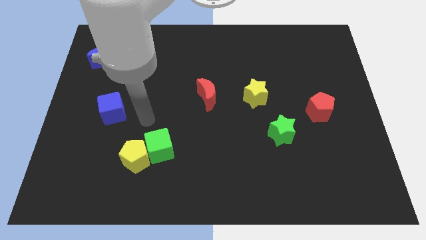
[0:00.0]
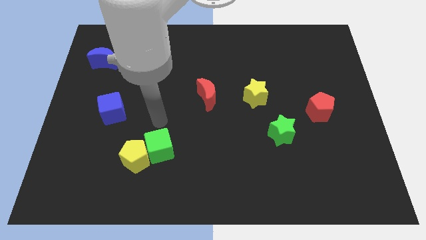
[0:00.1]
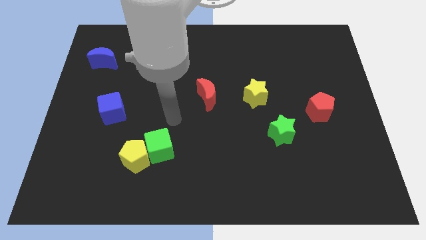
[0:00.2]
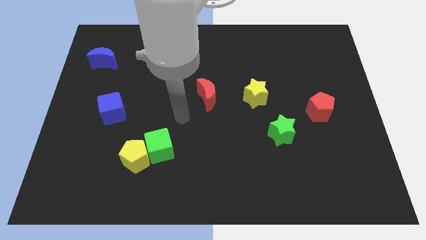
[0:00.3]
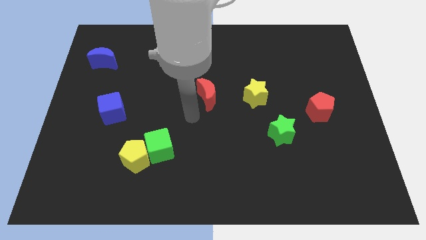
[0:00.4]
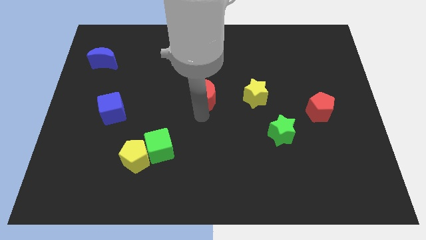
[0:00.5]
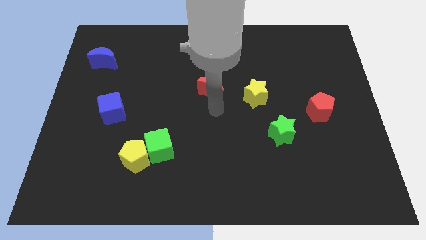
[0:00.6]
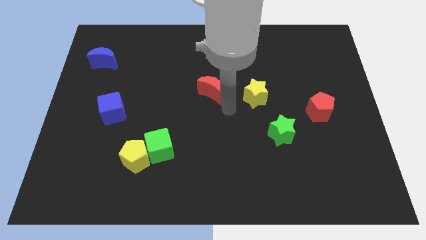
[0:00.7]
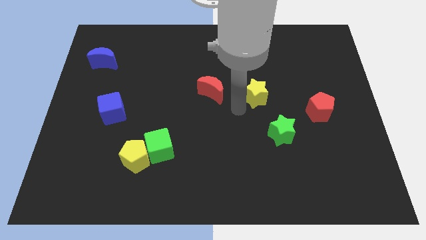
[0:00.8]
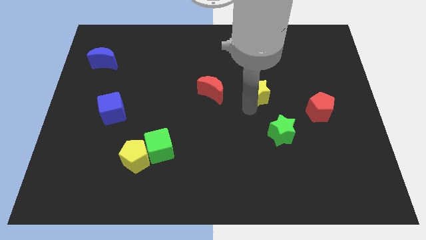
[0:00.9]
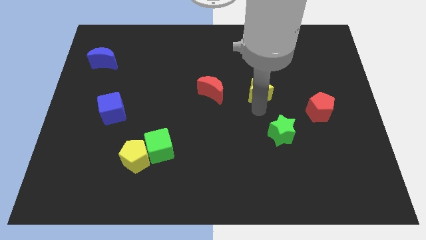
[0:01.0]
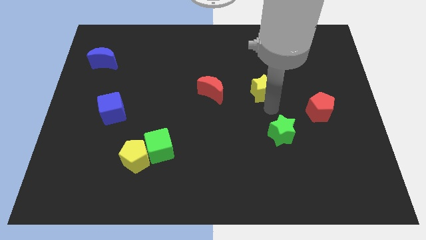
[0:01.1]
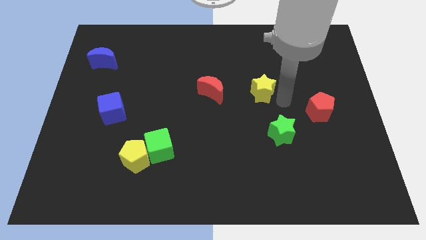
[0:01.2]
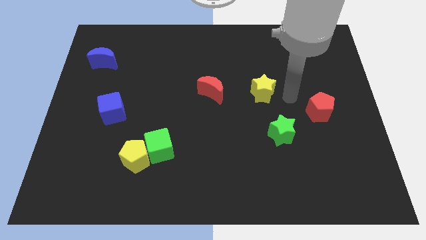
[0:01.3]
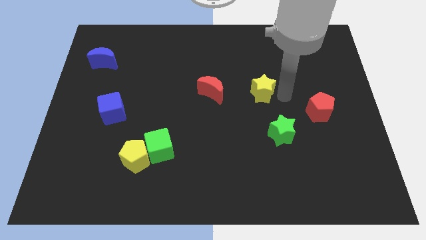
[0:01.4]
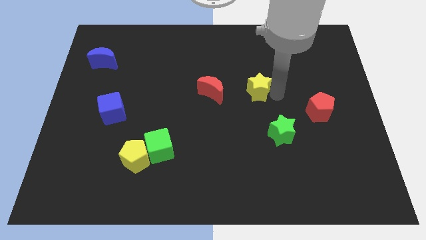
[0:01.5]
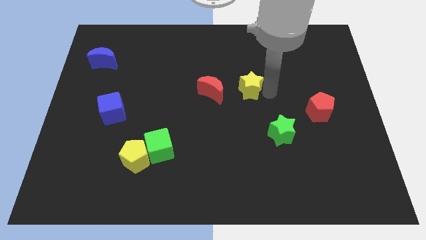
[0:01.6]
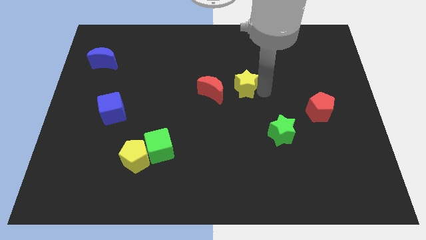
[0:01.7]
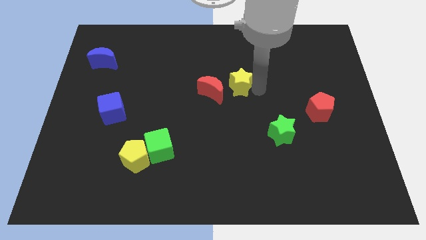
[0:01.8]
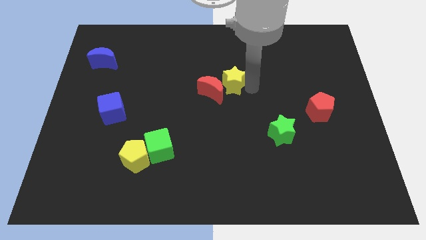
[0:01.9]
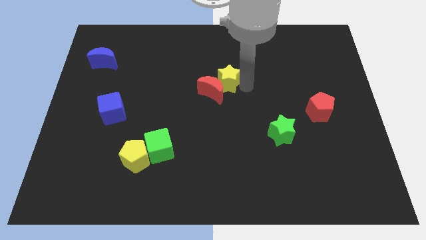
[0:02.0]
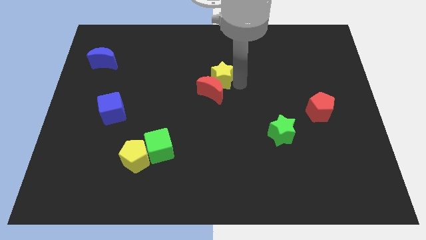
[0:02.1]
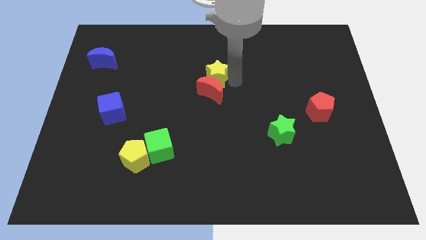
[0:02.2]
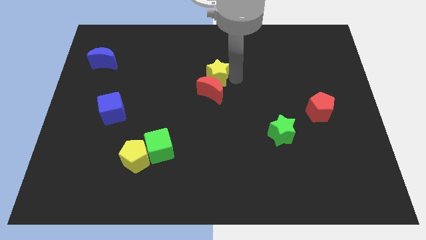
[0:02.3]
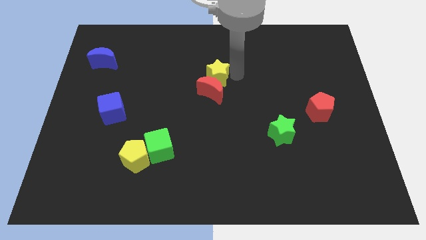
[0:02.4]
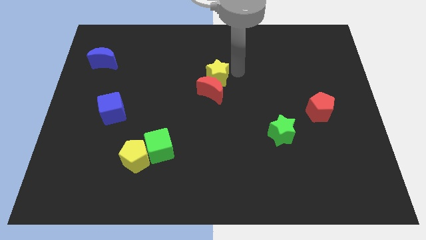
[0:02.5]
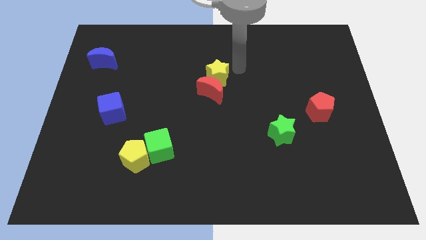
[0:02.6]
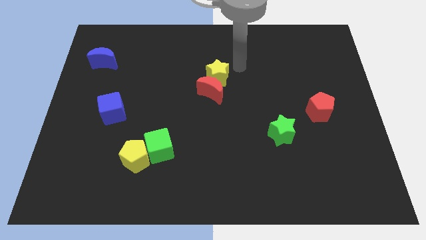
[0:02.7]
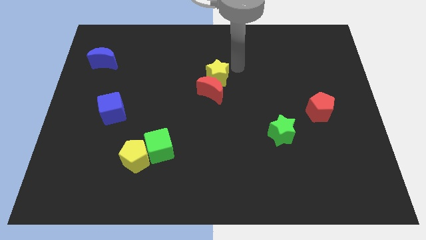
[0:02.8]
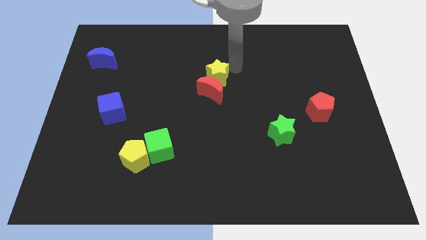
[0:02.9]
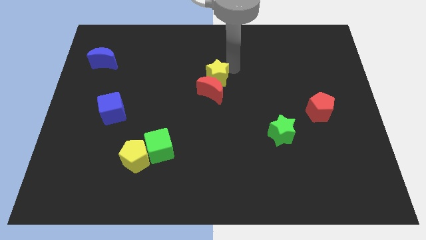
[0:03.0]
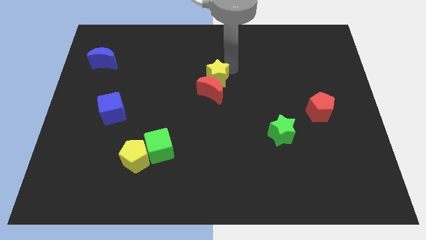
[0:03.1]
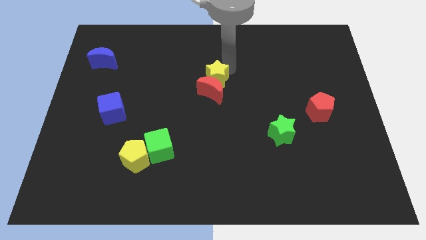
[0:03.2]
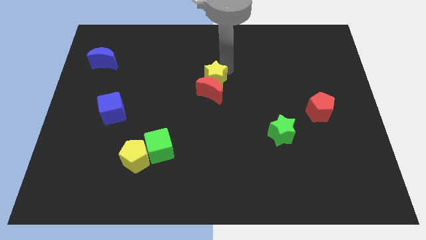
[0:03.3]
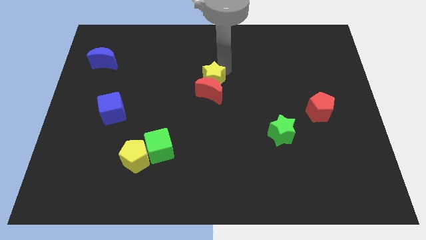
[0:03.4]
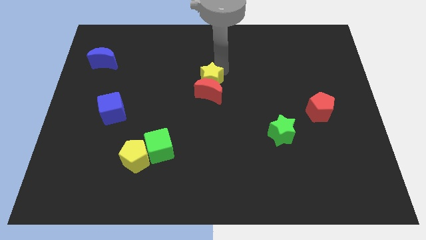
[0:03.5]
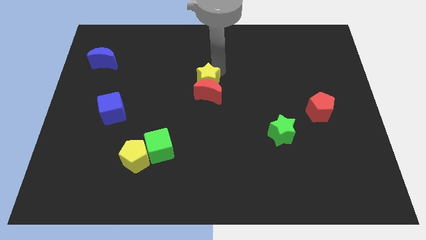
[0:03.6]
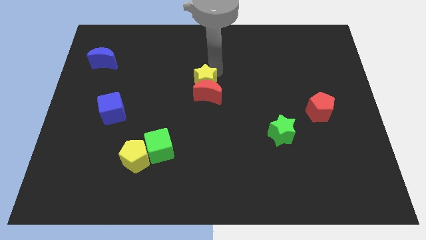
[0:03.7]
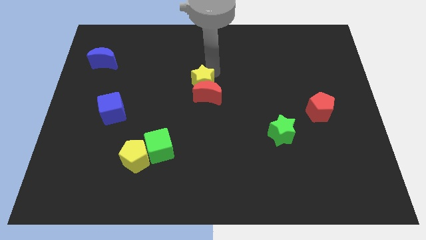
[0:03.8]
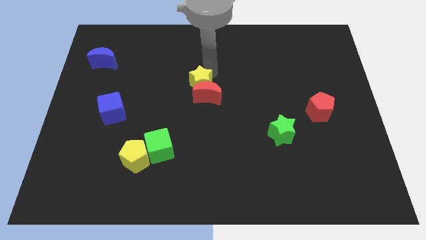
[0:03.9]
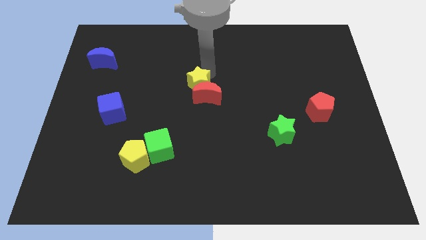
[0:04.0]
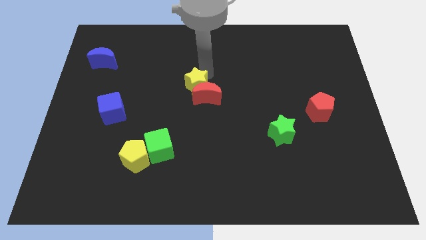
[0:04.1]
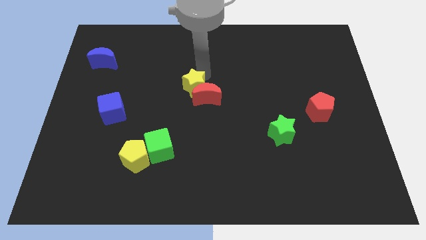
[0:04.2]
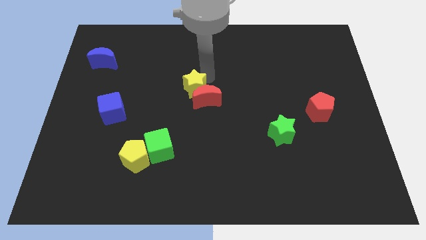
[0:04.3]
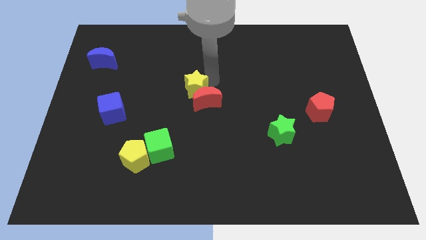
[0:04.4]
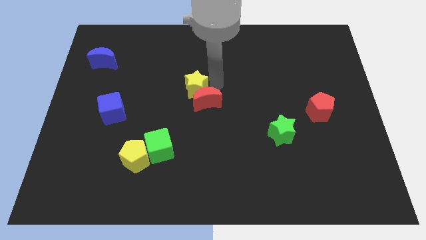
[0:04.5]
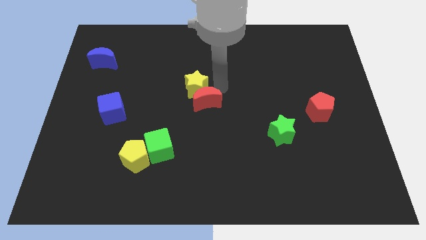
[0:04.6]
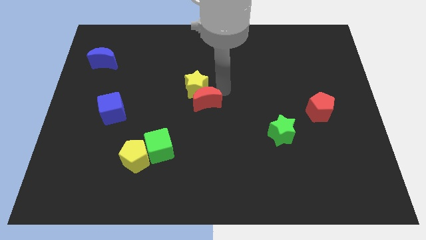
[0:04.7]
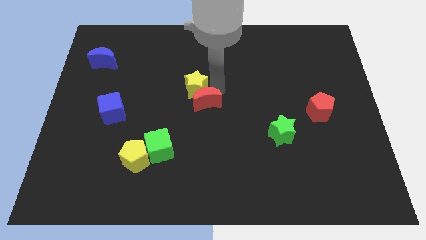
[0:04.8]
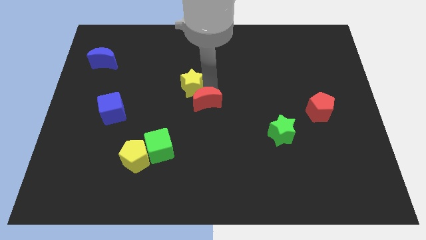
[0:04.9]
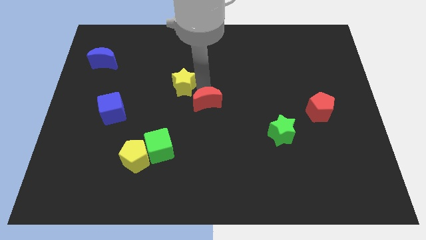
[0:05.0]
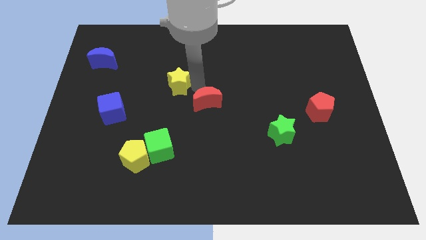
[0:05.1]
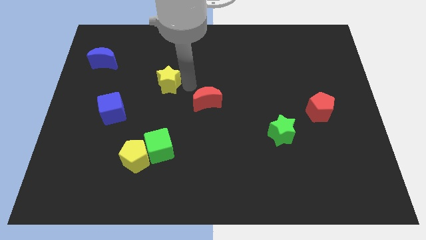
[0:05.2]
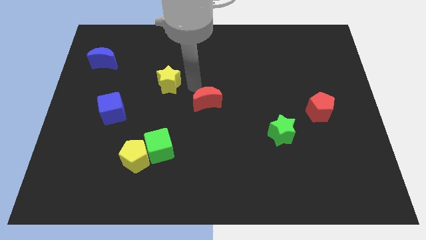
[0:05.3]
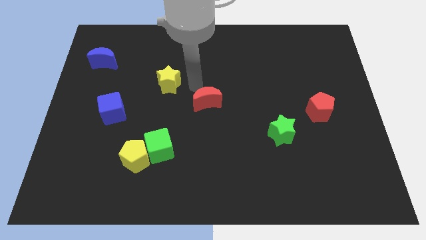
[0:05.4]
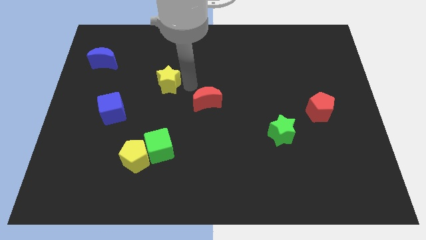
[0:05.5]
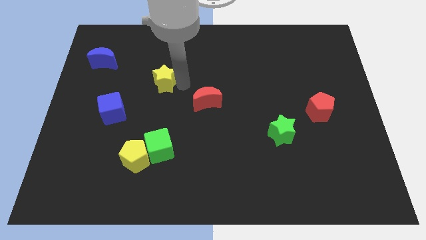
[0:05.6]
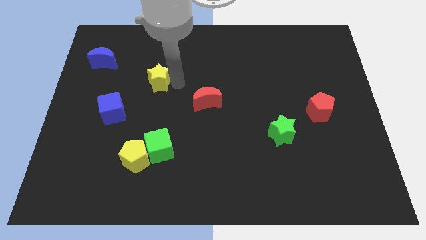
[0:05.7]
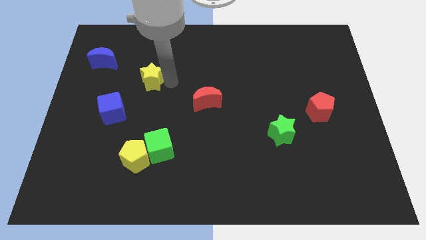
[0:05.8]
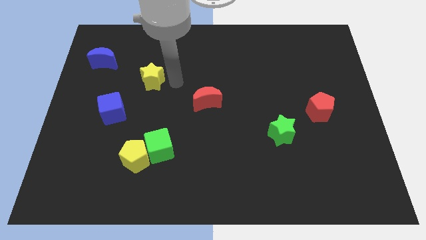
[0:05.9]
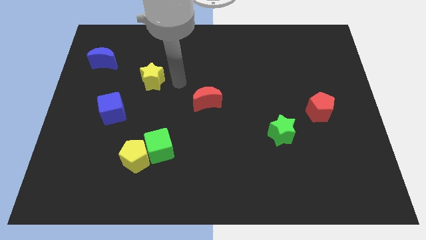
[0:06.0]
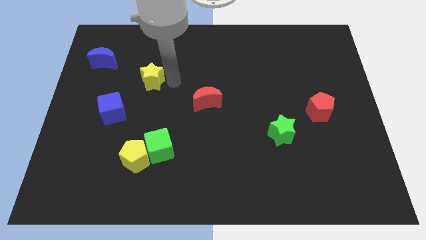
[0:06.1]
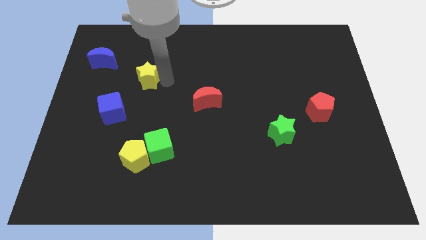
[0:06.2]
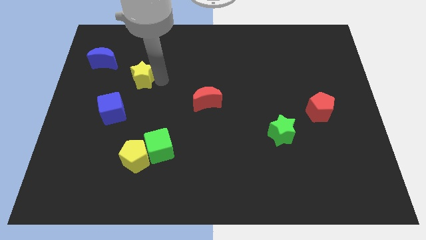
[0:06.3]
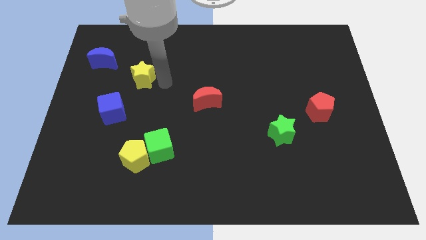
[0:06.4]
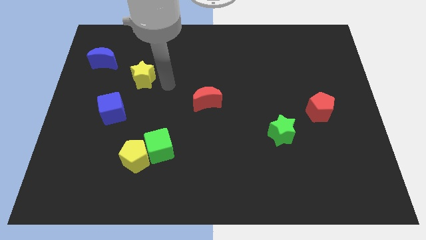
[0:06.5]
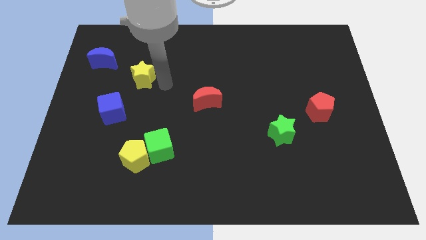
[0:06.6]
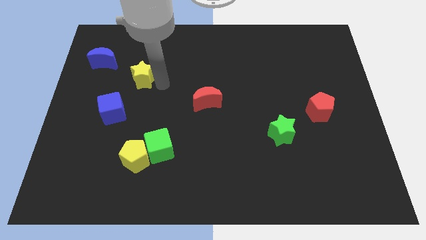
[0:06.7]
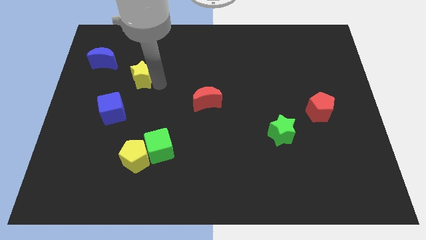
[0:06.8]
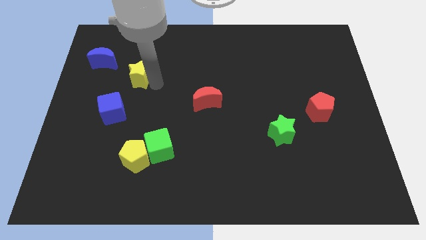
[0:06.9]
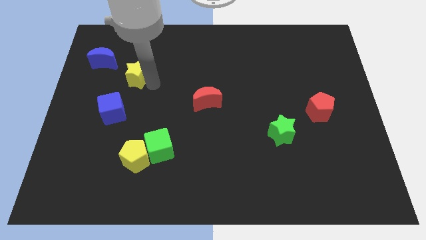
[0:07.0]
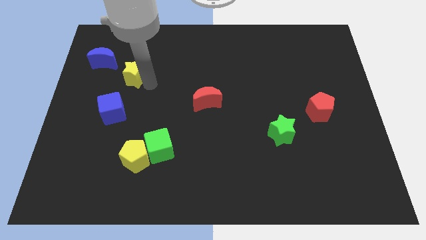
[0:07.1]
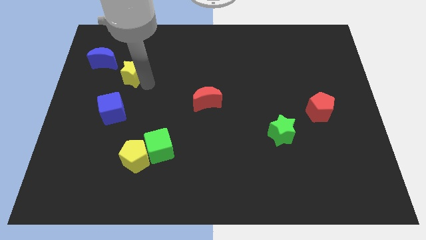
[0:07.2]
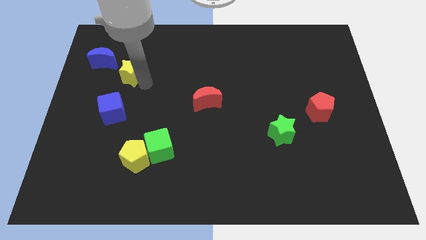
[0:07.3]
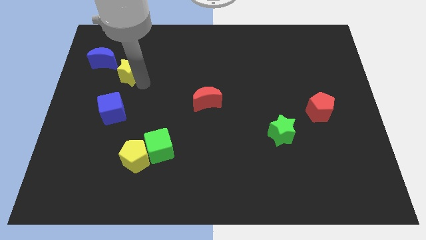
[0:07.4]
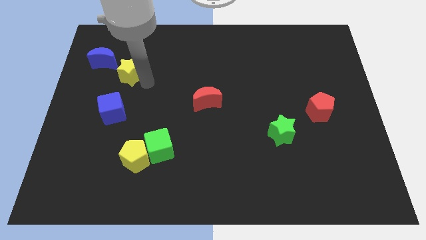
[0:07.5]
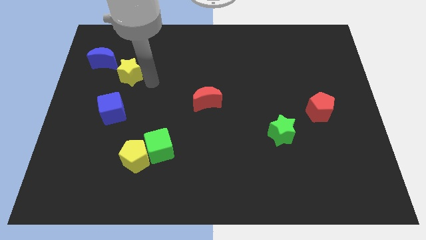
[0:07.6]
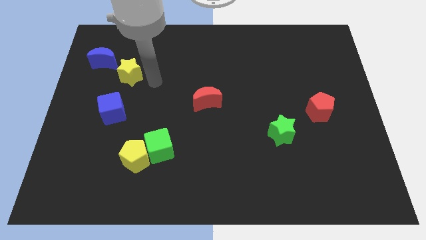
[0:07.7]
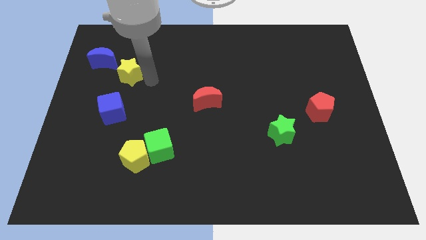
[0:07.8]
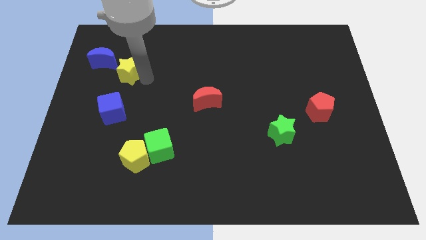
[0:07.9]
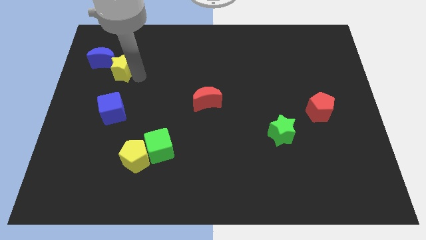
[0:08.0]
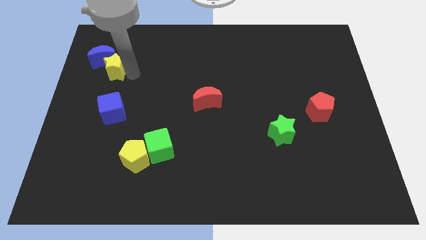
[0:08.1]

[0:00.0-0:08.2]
move the yellow star next to the blue moon
